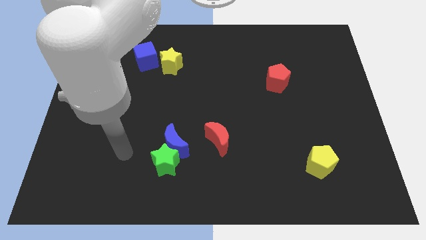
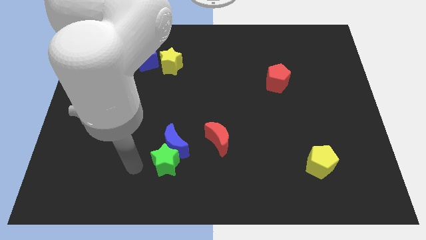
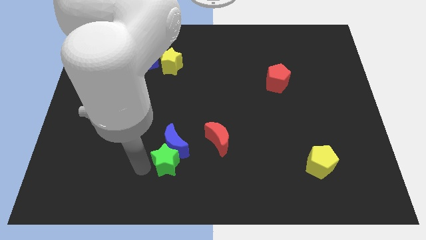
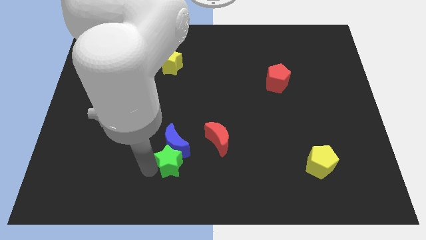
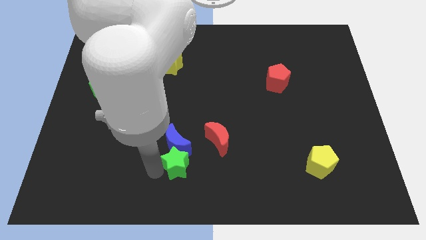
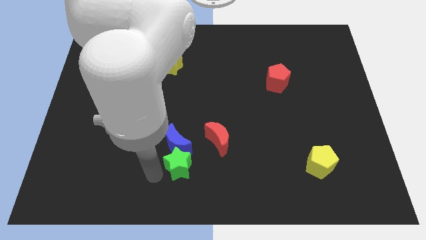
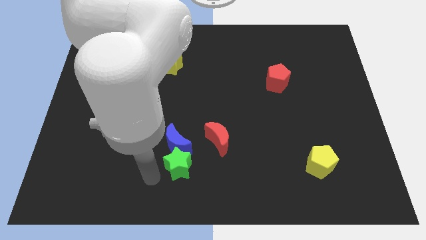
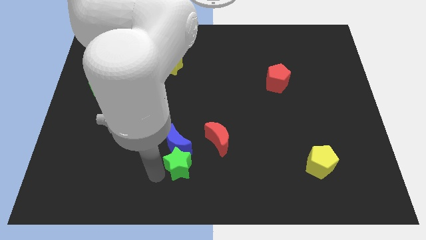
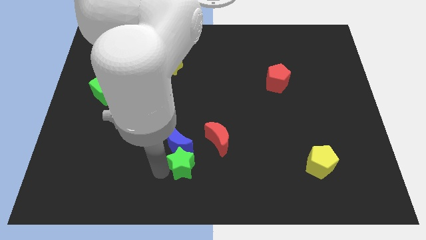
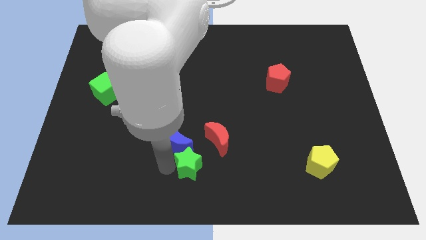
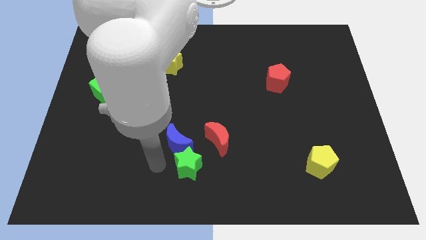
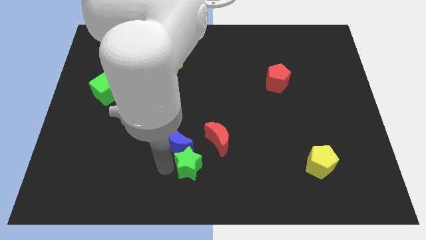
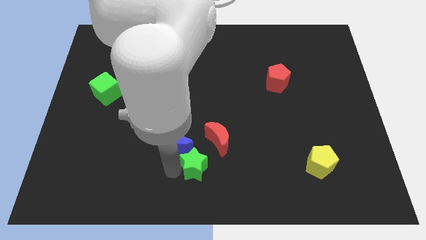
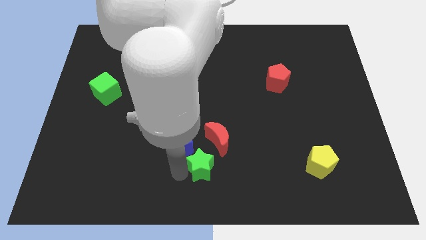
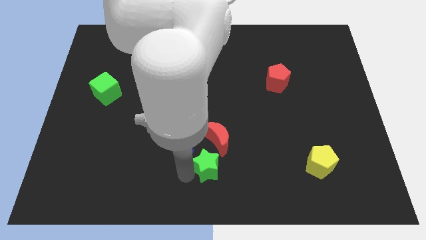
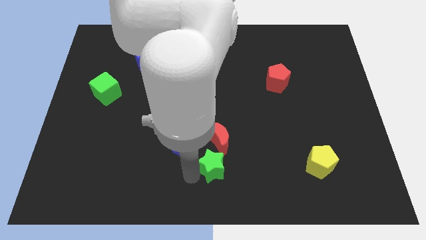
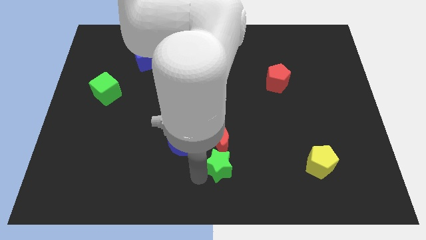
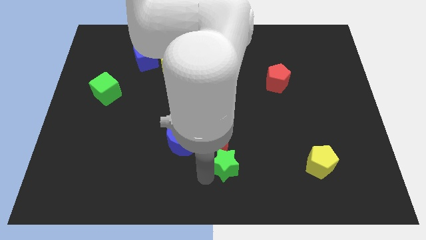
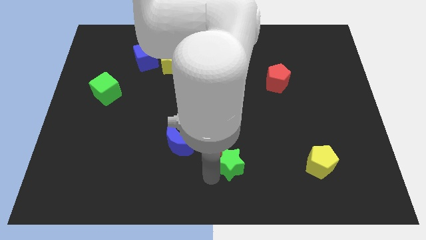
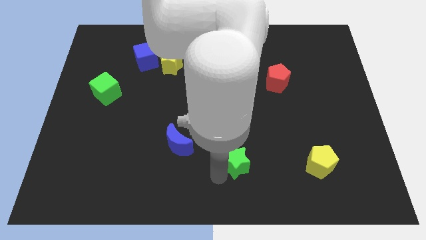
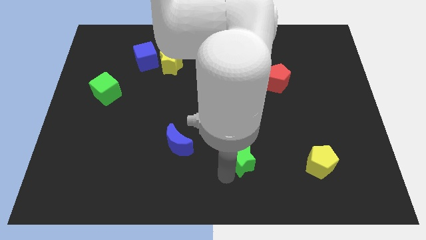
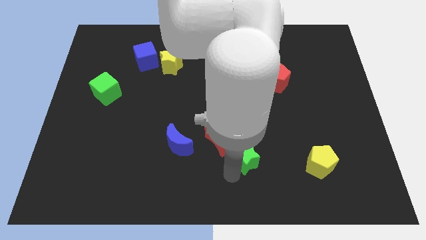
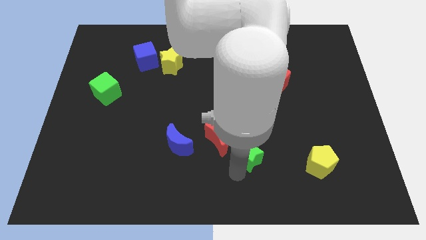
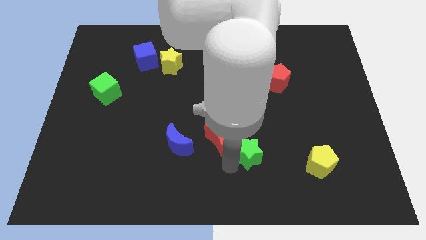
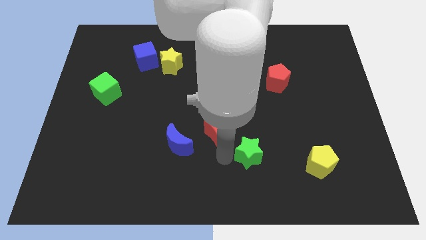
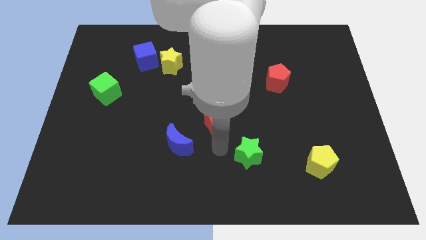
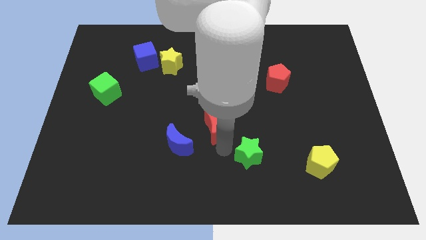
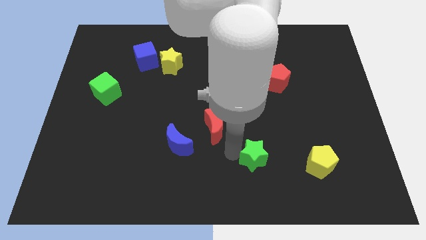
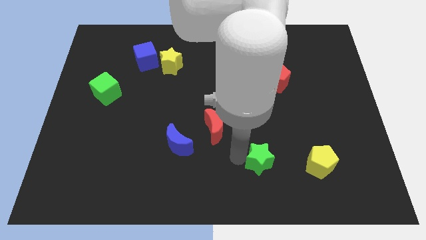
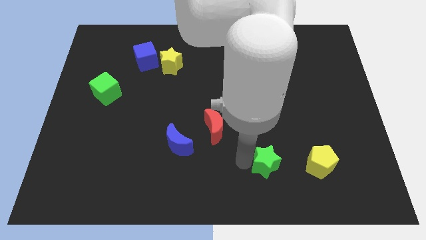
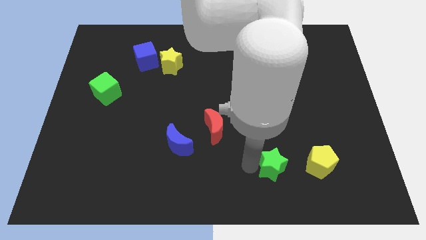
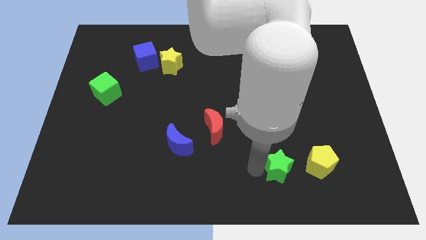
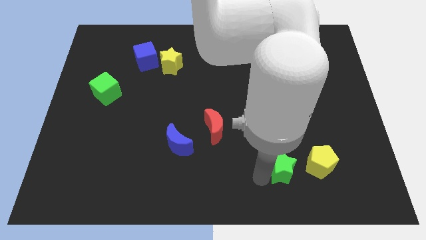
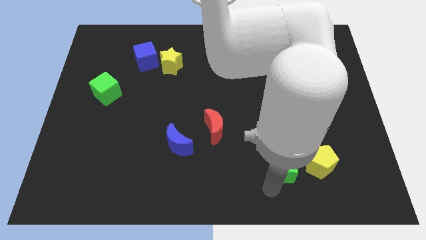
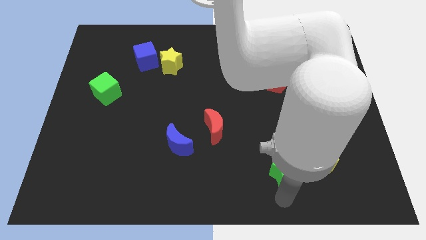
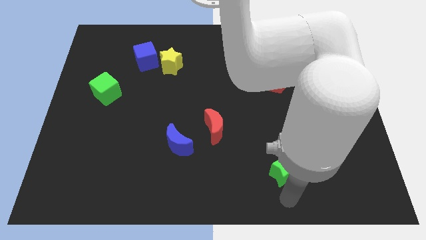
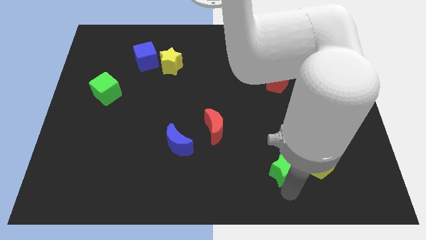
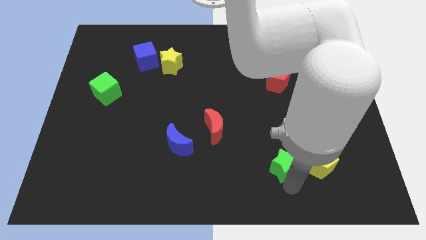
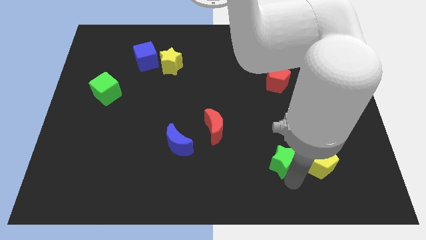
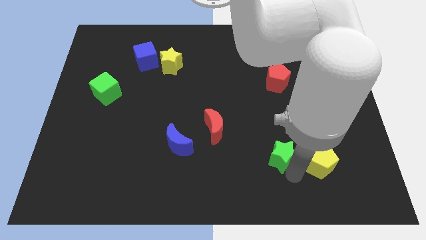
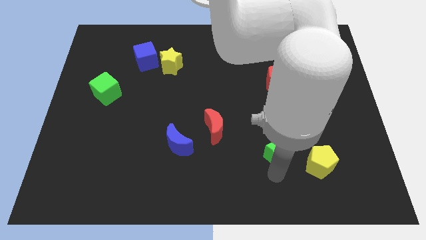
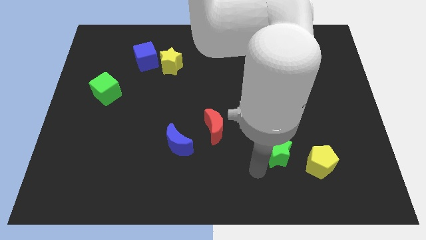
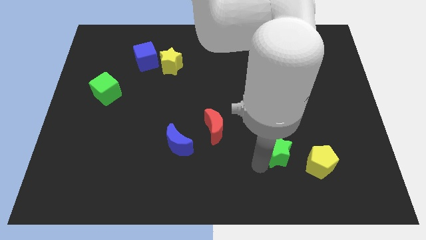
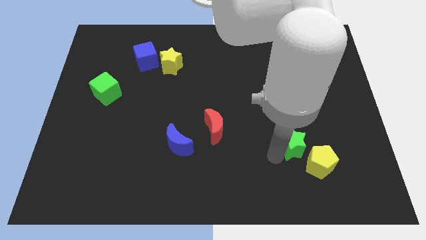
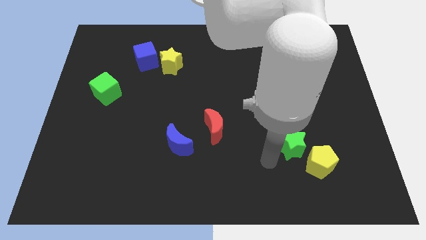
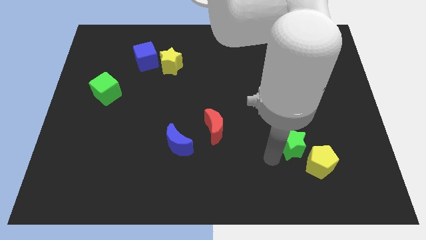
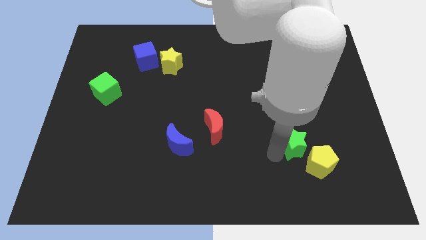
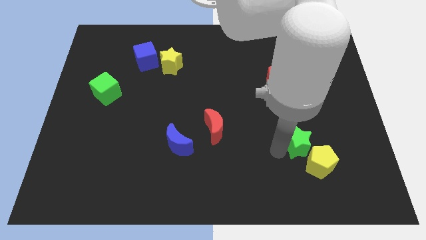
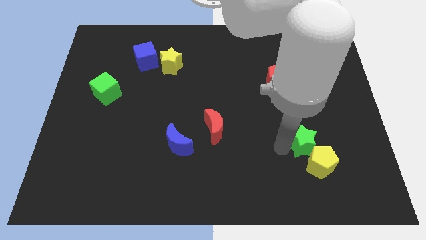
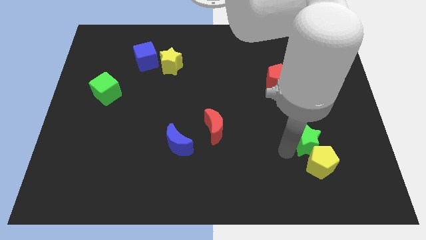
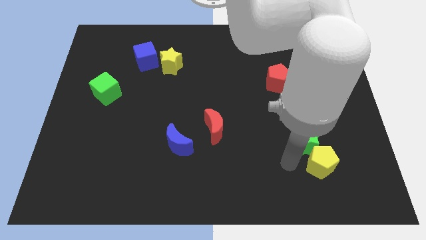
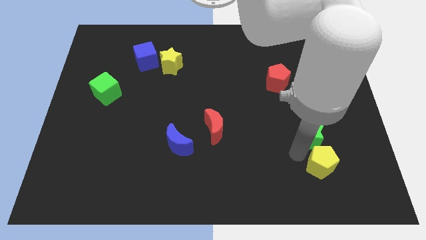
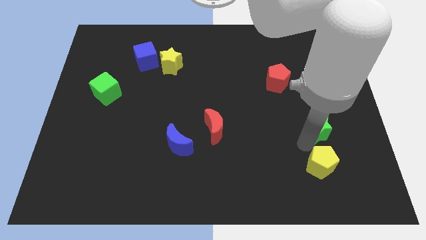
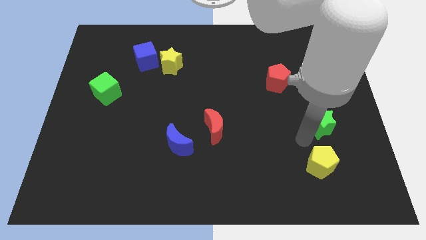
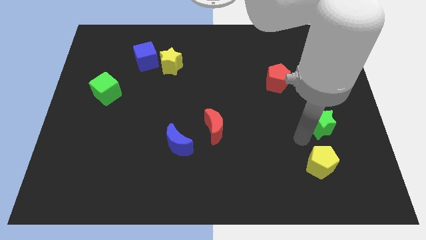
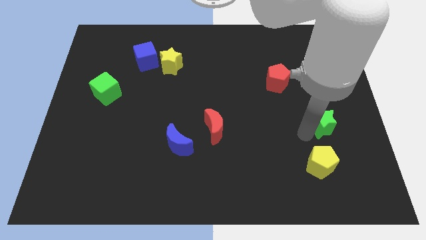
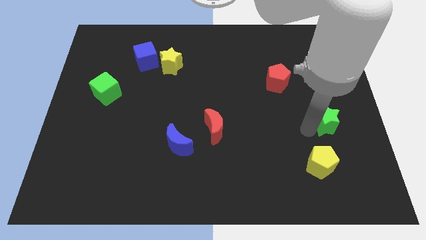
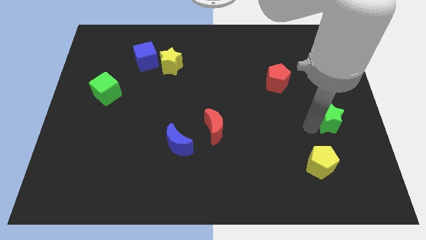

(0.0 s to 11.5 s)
slide the green star to the right side of the board
